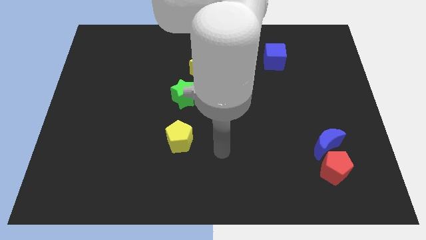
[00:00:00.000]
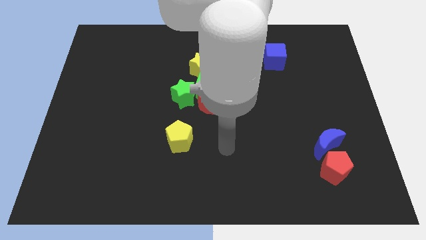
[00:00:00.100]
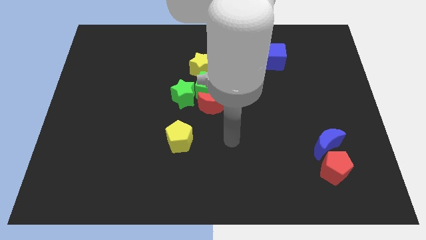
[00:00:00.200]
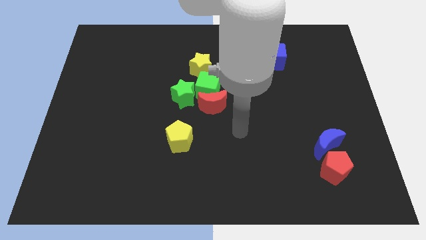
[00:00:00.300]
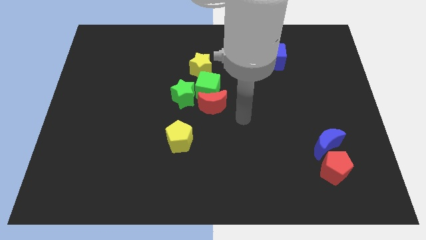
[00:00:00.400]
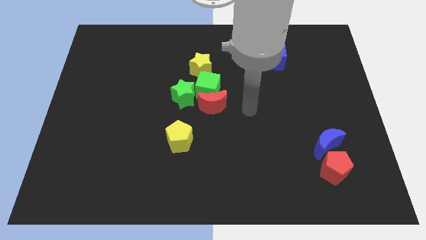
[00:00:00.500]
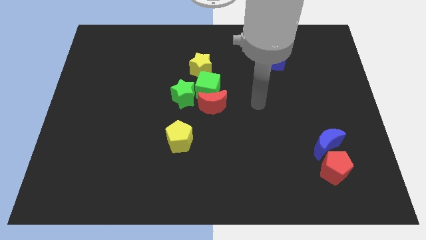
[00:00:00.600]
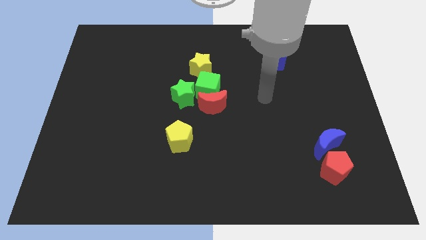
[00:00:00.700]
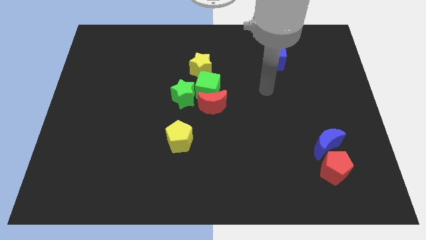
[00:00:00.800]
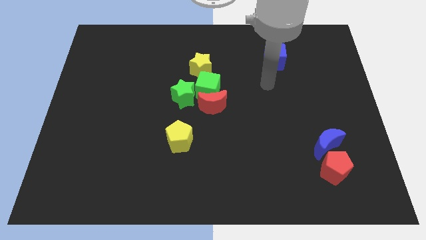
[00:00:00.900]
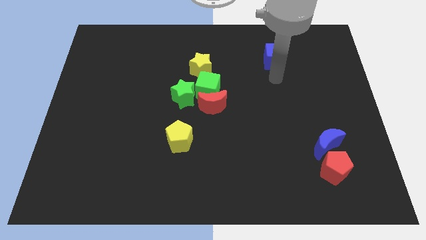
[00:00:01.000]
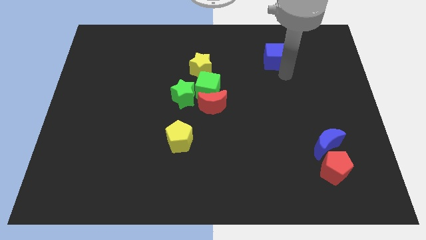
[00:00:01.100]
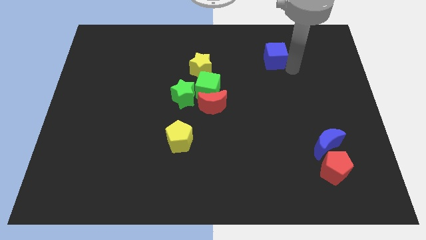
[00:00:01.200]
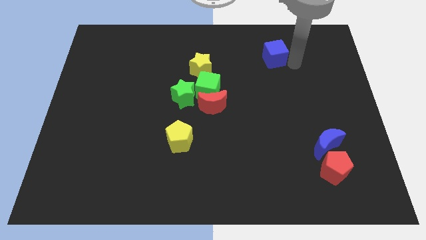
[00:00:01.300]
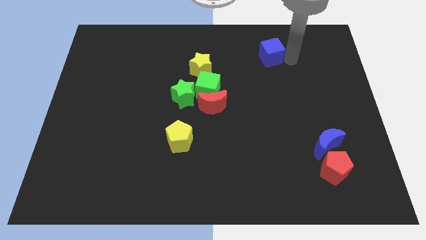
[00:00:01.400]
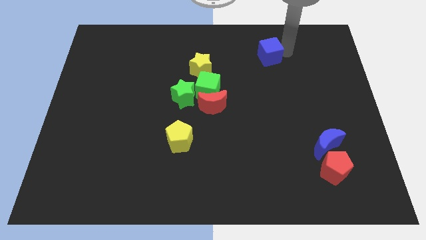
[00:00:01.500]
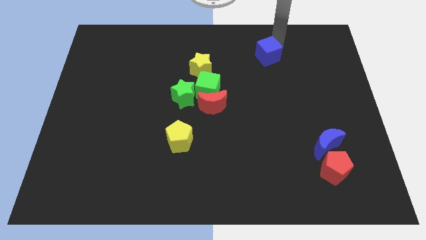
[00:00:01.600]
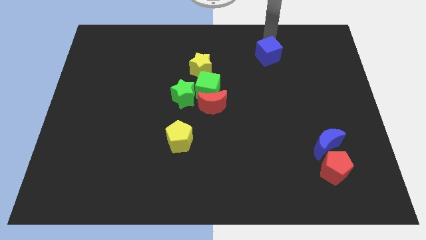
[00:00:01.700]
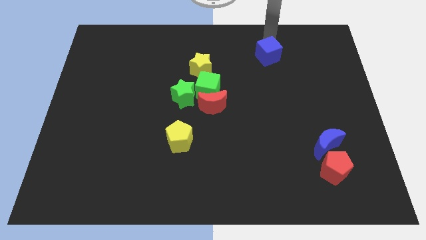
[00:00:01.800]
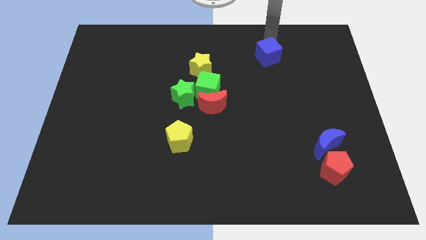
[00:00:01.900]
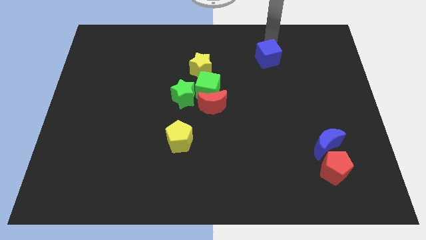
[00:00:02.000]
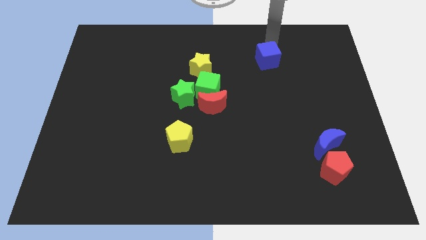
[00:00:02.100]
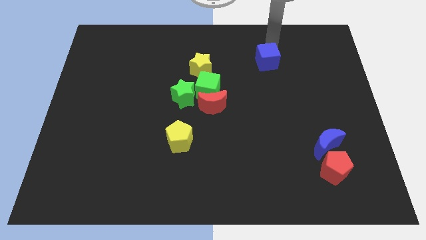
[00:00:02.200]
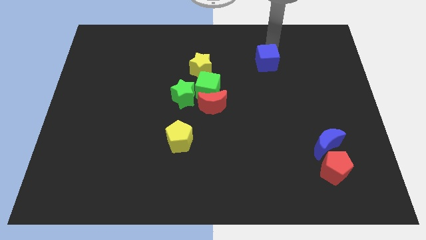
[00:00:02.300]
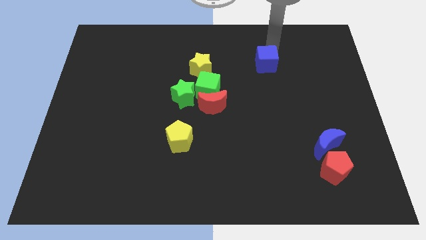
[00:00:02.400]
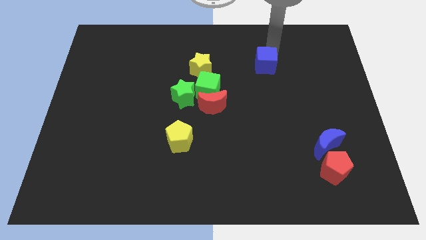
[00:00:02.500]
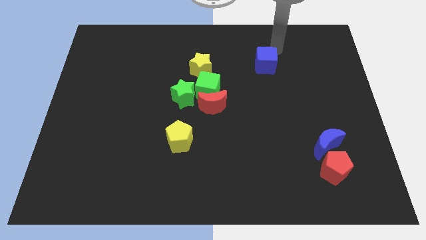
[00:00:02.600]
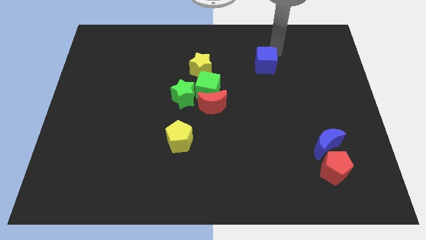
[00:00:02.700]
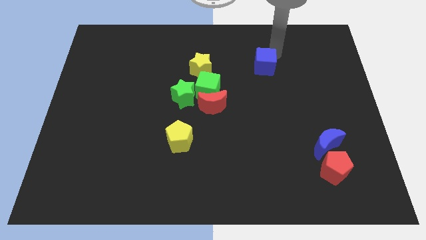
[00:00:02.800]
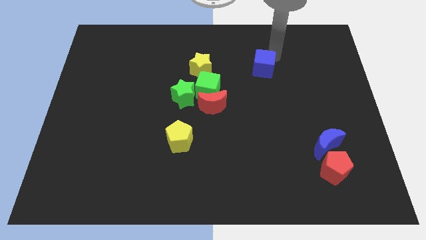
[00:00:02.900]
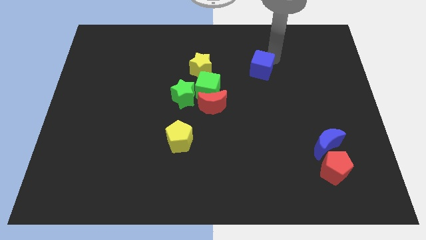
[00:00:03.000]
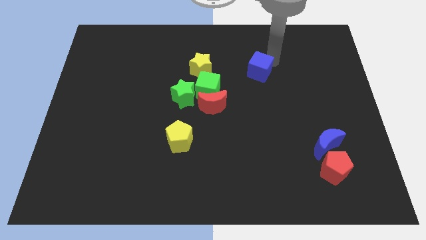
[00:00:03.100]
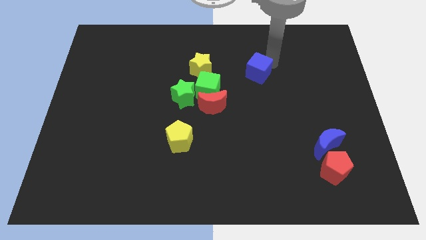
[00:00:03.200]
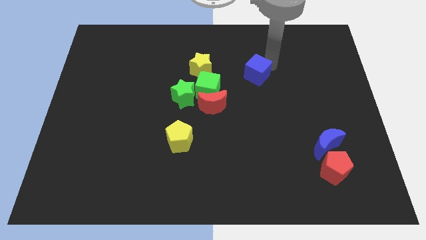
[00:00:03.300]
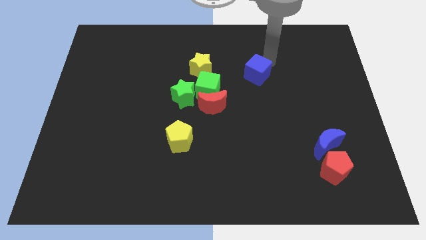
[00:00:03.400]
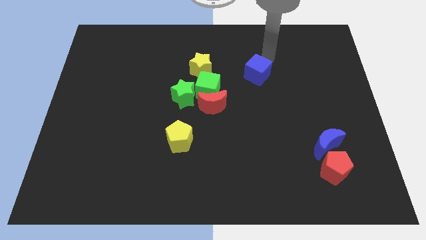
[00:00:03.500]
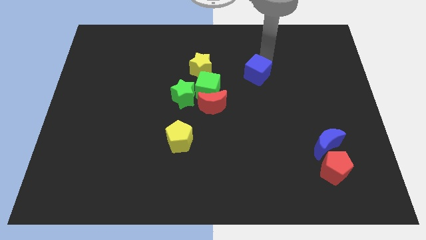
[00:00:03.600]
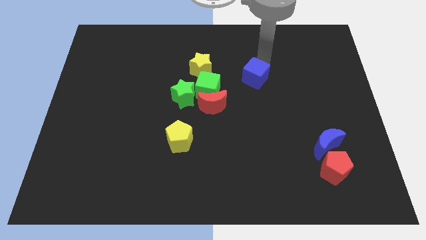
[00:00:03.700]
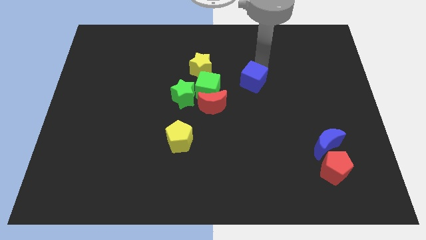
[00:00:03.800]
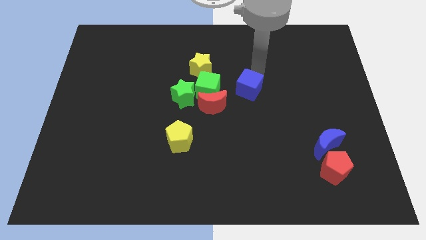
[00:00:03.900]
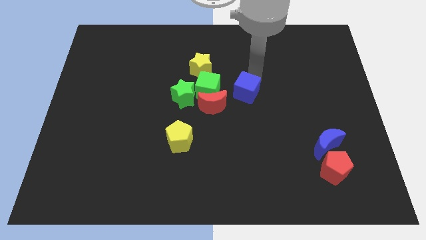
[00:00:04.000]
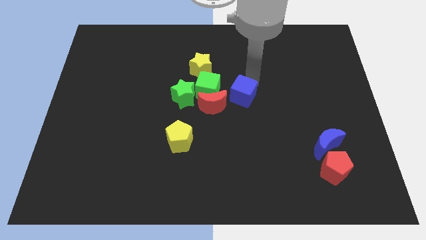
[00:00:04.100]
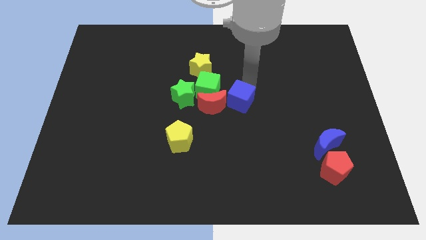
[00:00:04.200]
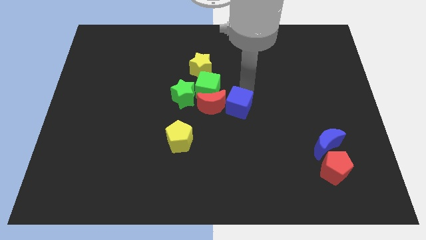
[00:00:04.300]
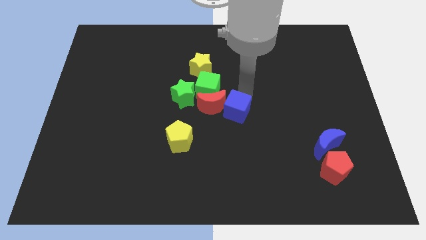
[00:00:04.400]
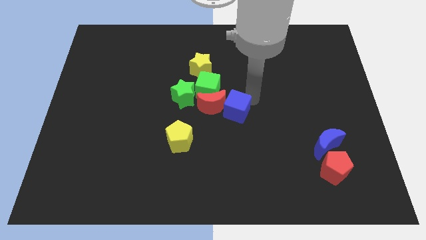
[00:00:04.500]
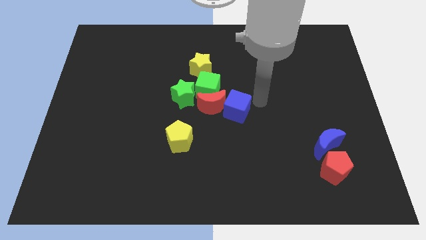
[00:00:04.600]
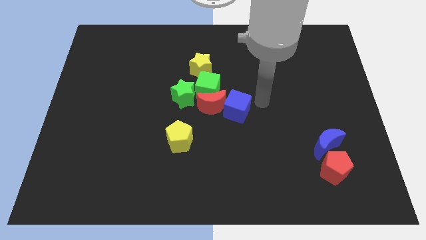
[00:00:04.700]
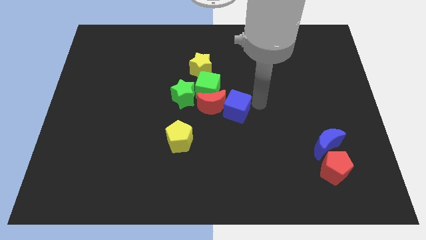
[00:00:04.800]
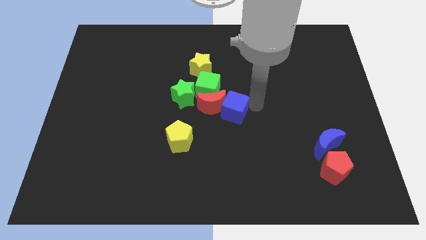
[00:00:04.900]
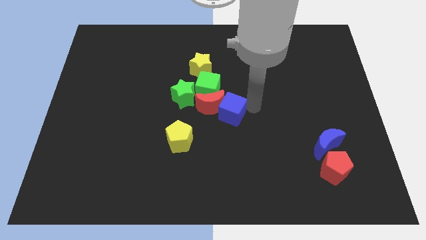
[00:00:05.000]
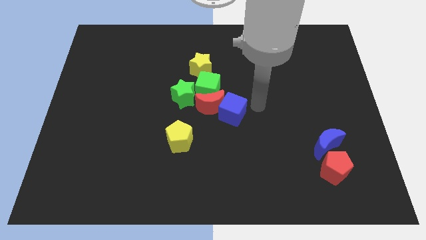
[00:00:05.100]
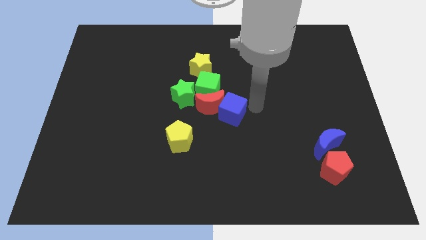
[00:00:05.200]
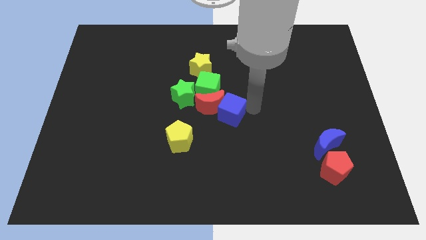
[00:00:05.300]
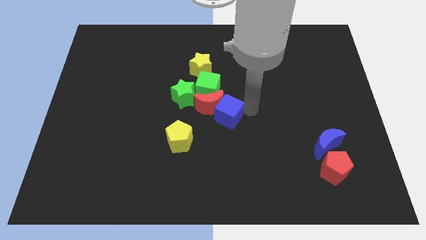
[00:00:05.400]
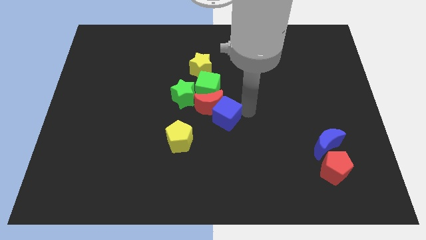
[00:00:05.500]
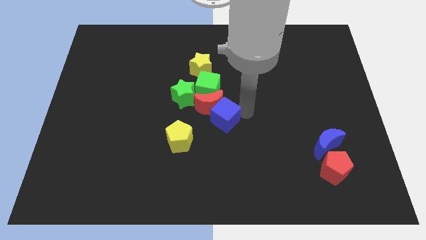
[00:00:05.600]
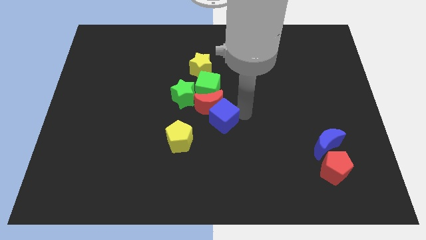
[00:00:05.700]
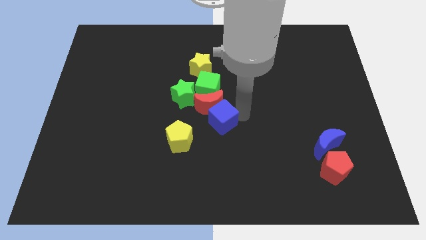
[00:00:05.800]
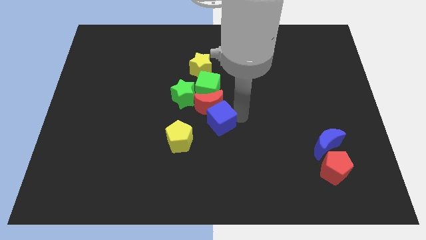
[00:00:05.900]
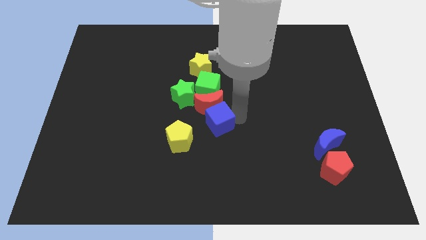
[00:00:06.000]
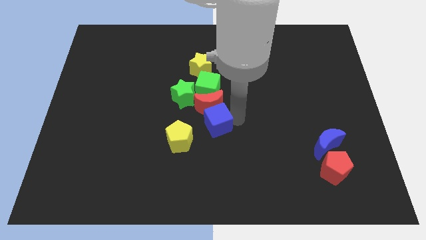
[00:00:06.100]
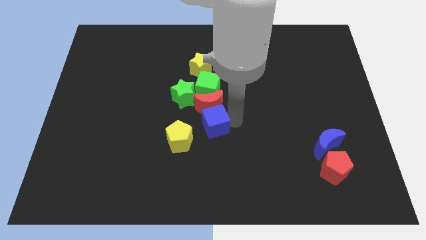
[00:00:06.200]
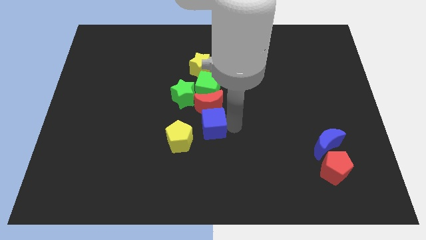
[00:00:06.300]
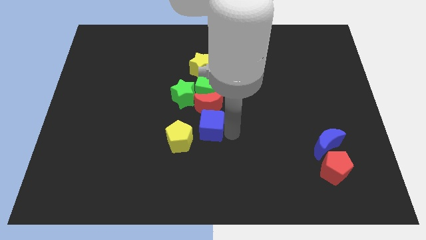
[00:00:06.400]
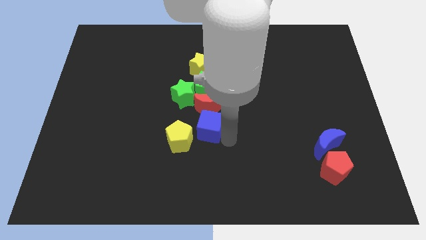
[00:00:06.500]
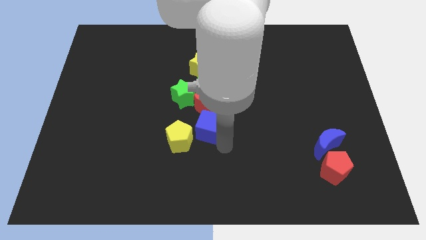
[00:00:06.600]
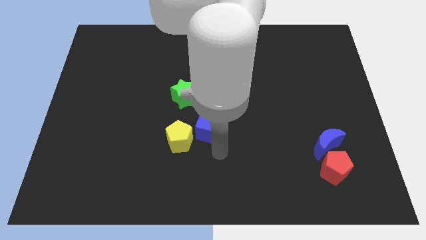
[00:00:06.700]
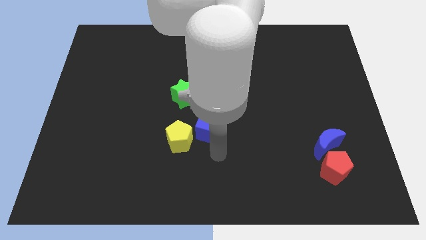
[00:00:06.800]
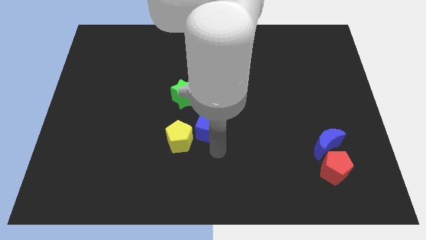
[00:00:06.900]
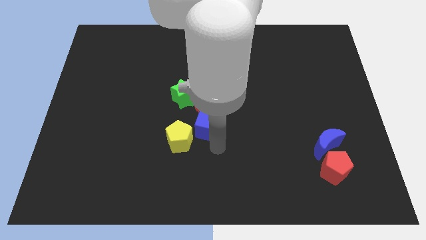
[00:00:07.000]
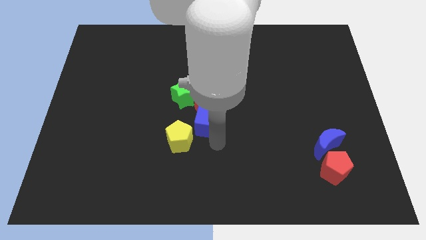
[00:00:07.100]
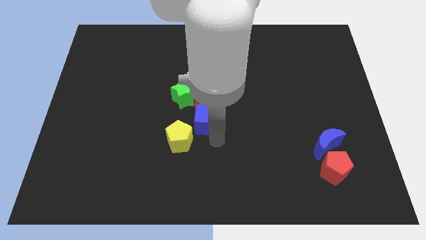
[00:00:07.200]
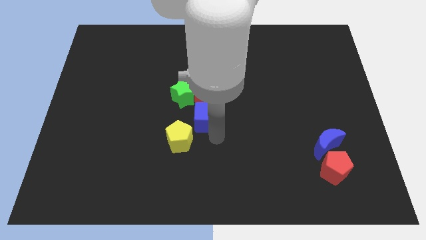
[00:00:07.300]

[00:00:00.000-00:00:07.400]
move the blue cube below the yellow star
